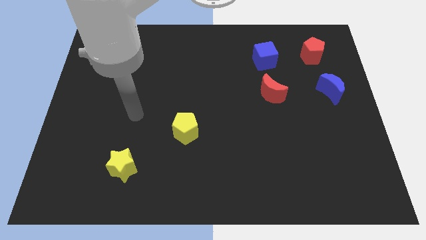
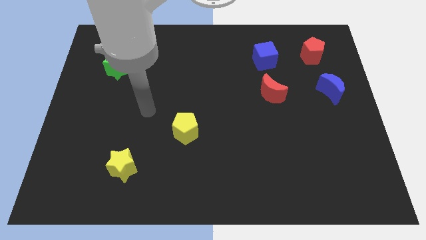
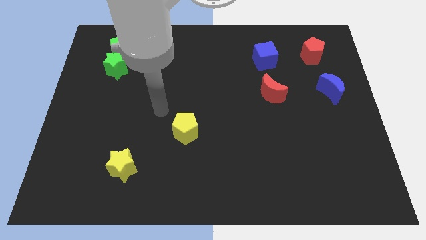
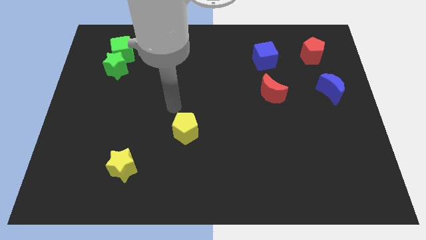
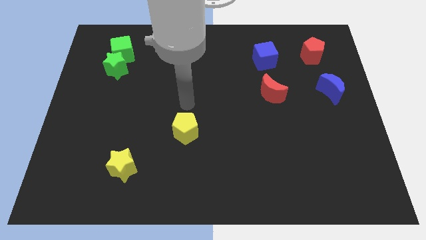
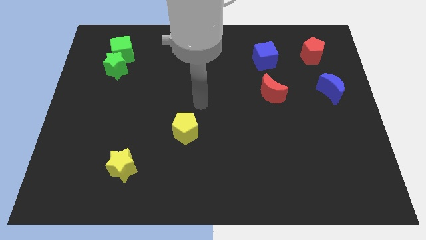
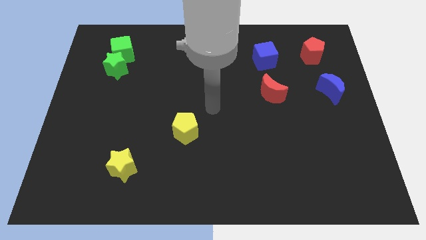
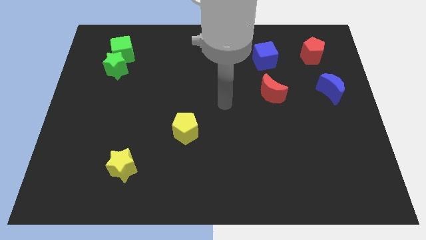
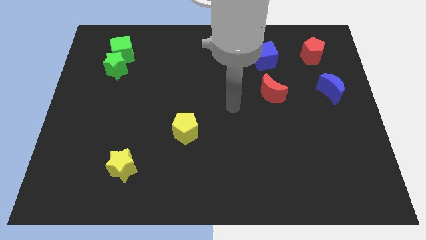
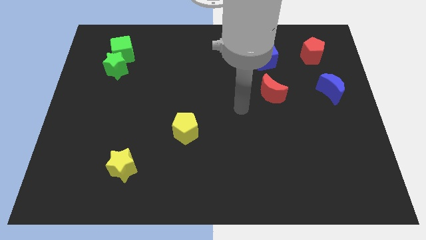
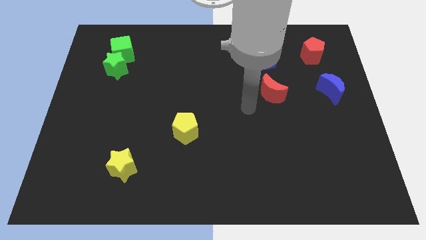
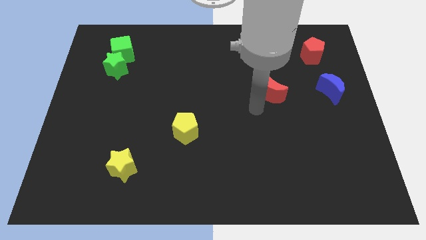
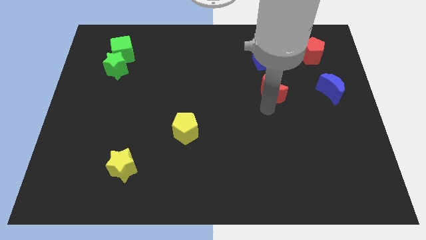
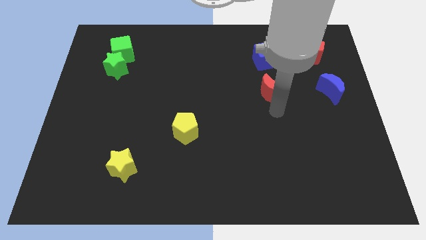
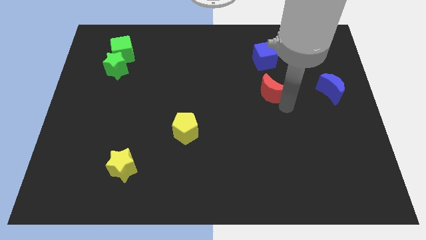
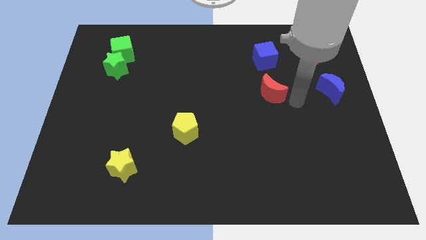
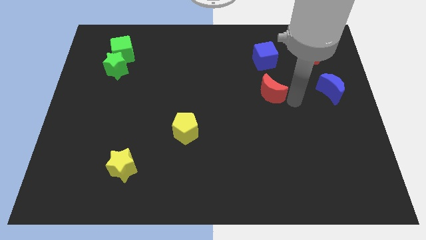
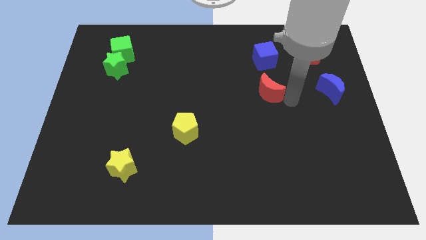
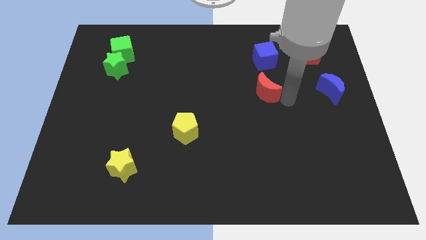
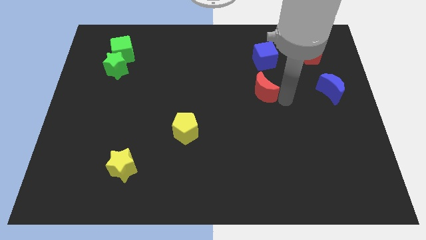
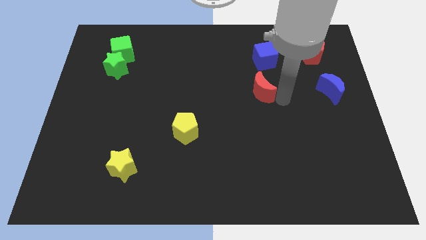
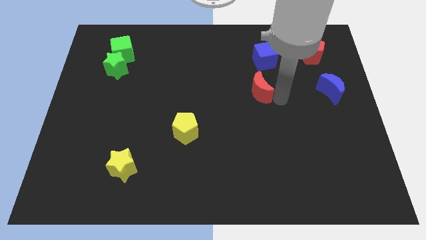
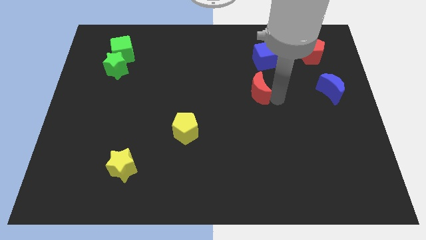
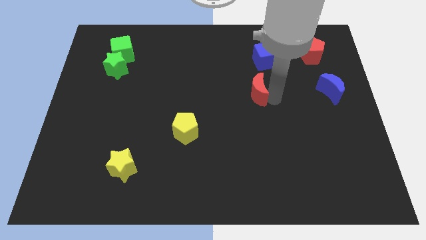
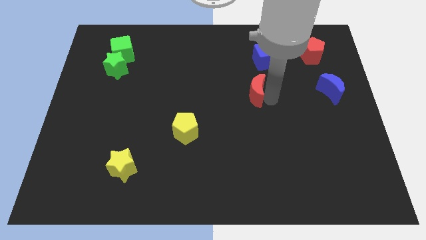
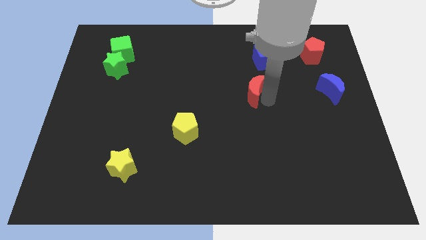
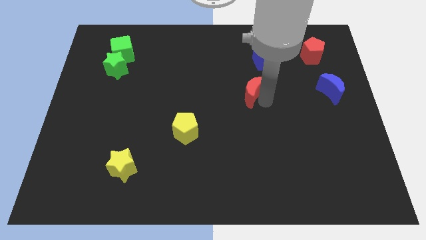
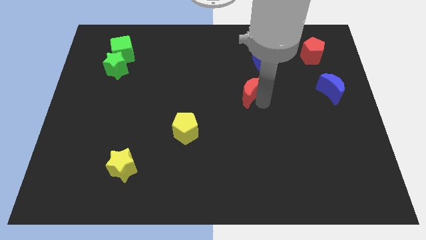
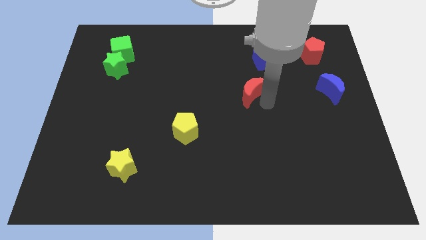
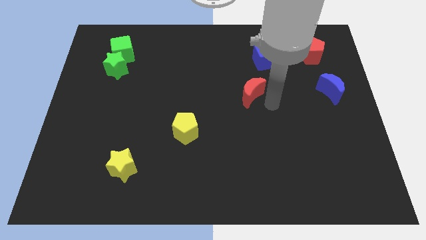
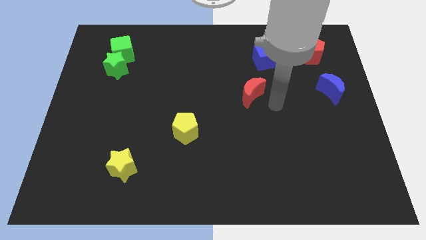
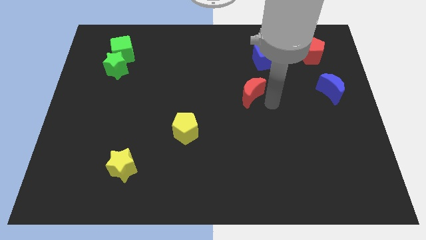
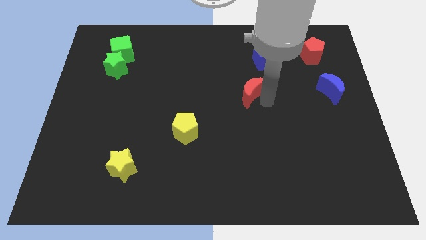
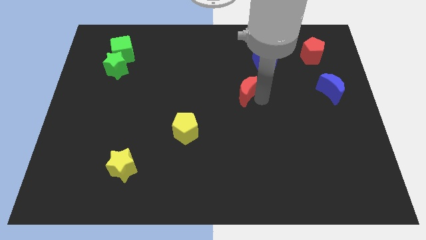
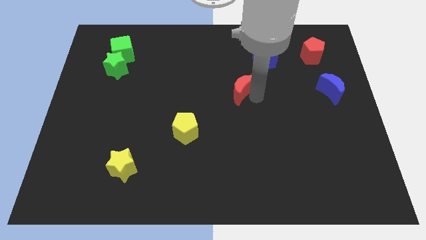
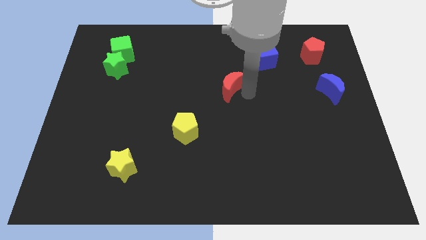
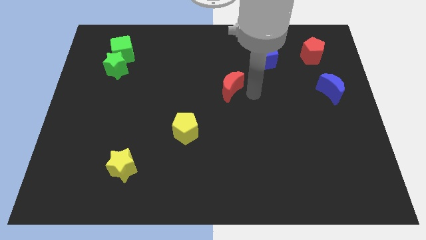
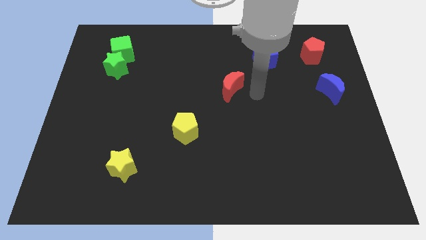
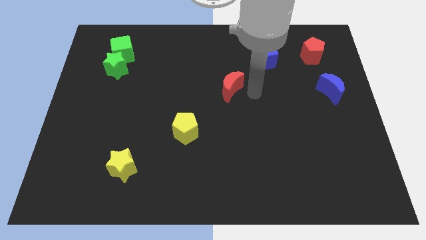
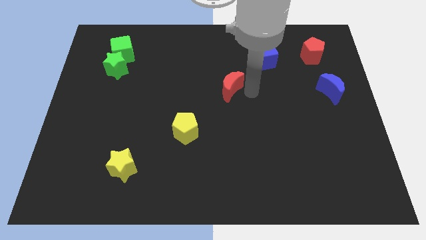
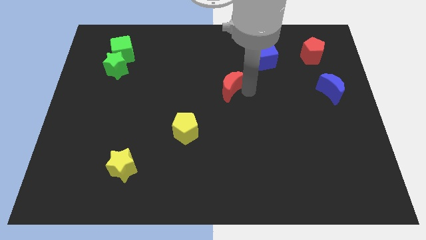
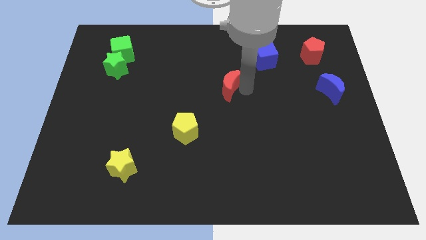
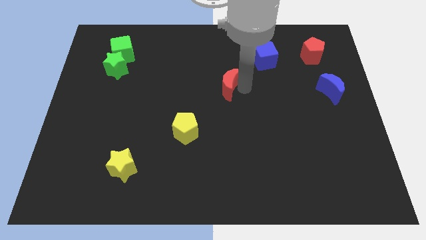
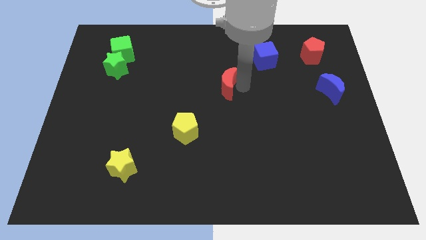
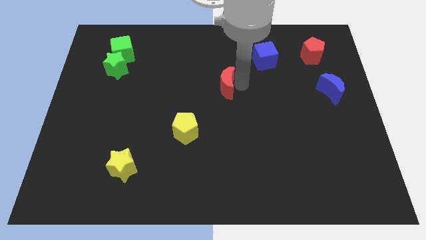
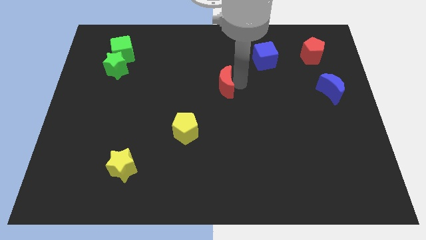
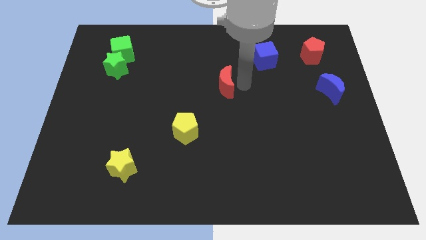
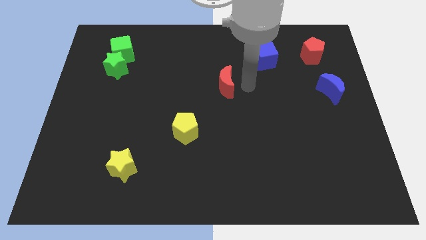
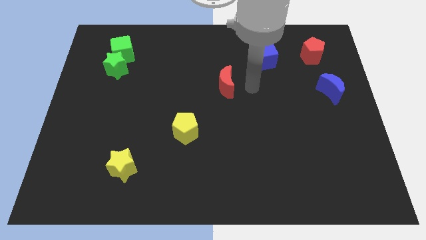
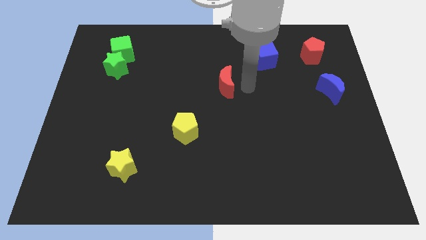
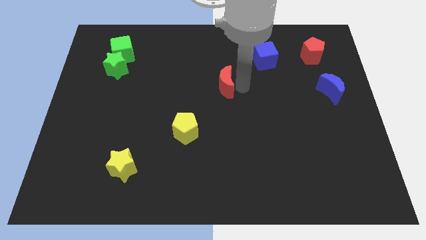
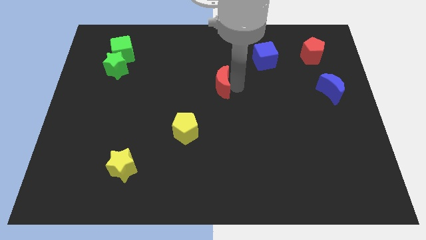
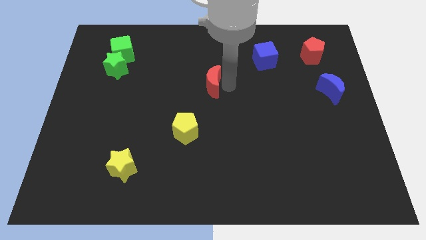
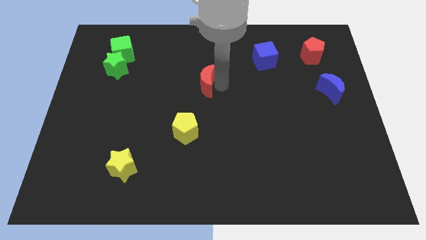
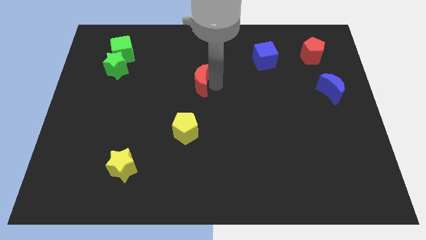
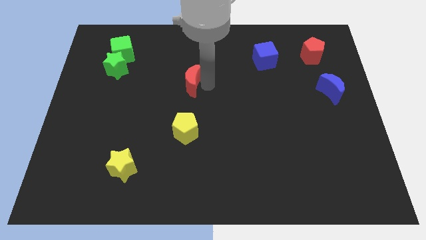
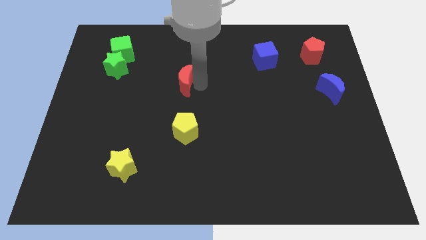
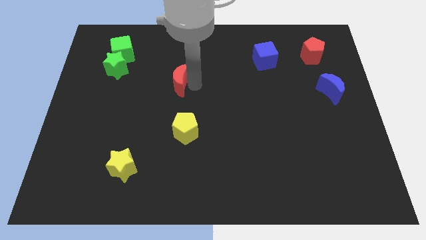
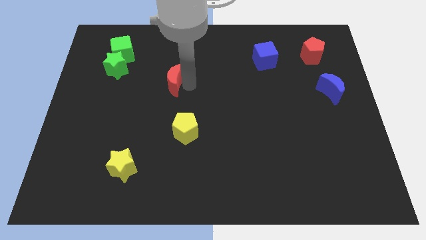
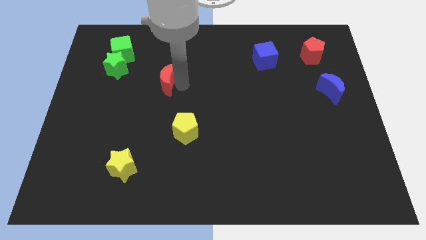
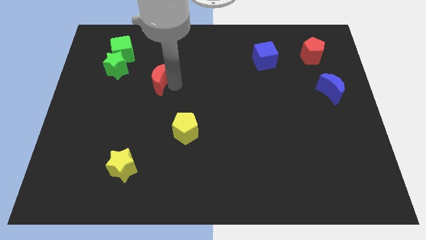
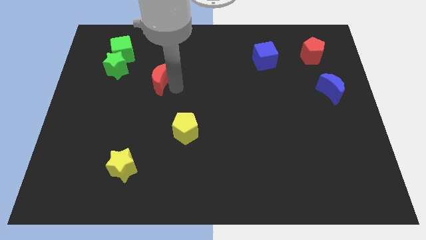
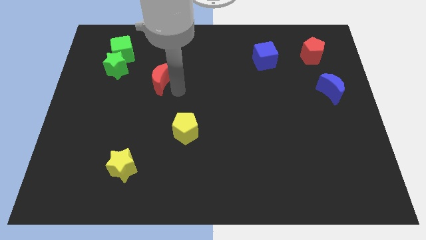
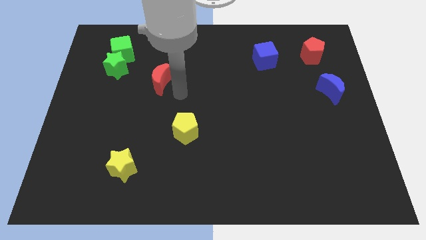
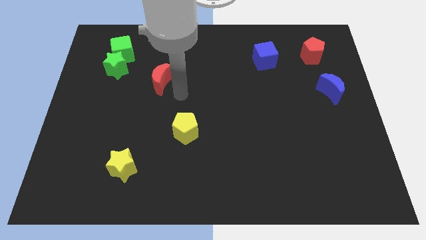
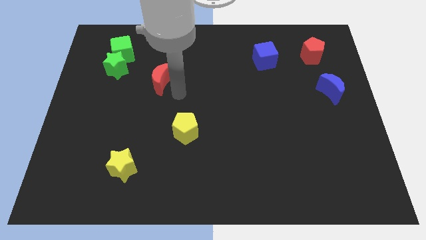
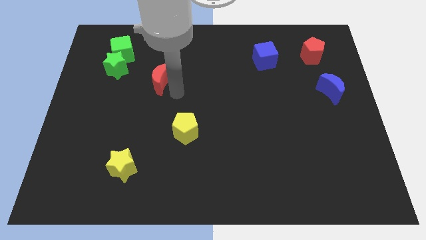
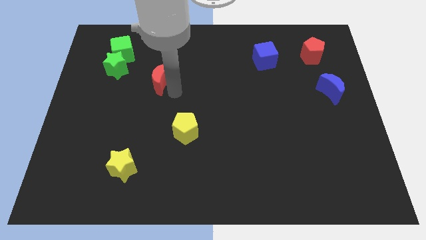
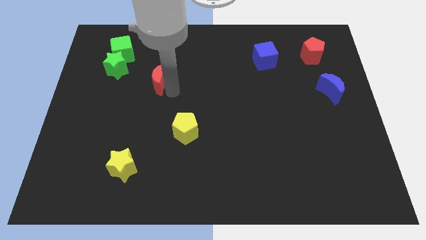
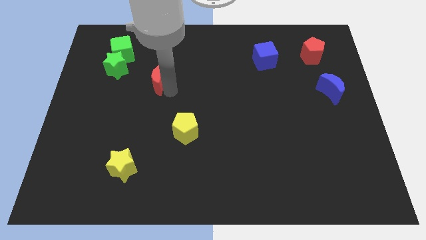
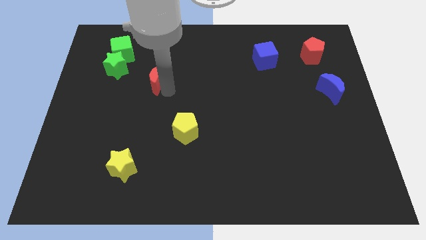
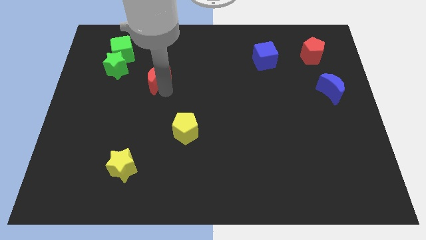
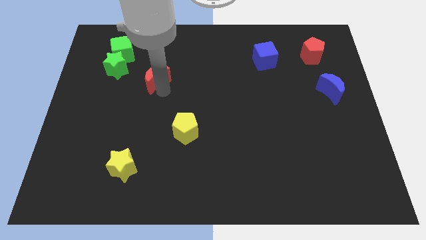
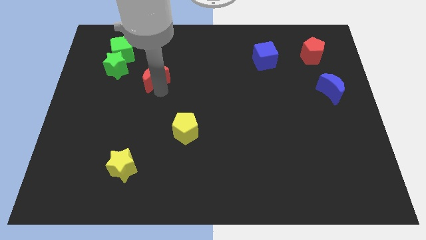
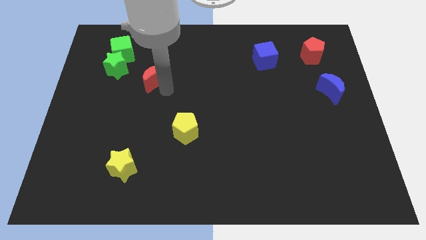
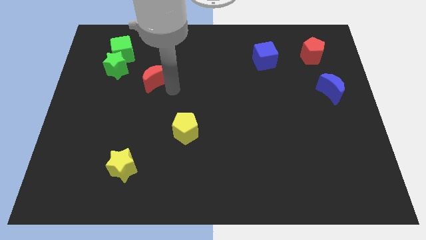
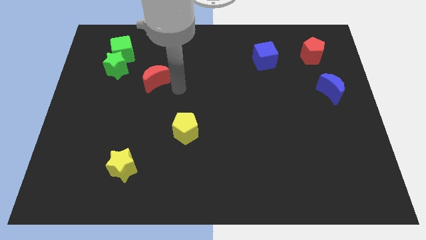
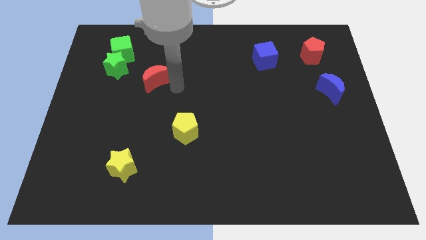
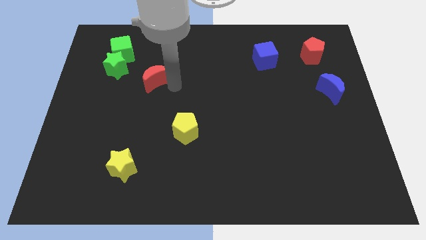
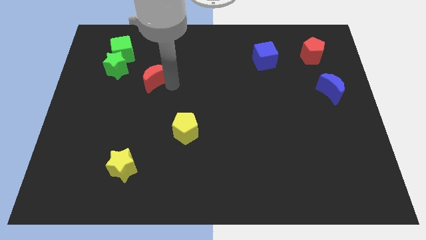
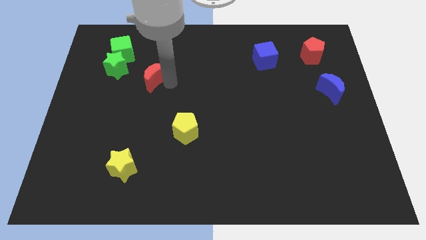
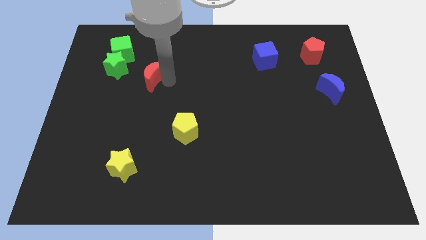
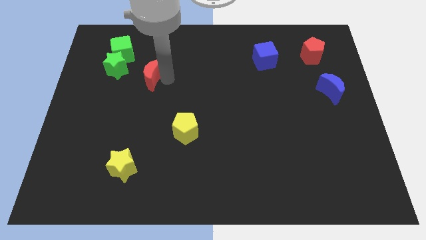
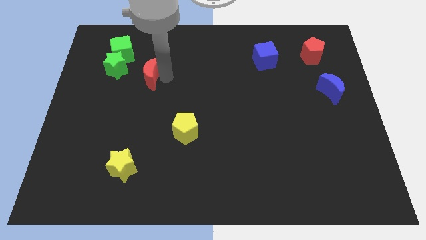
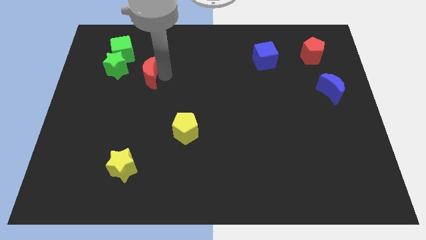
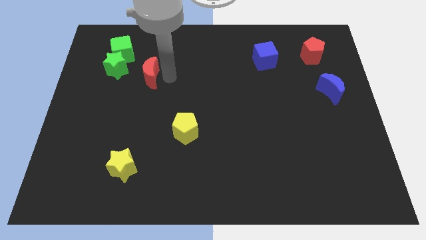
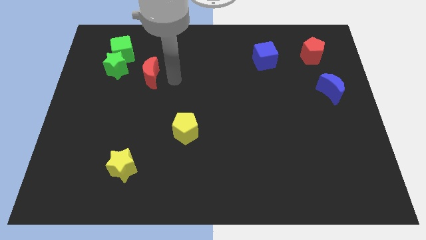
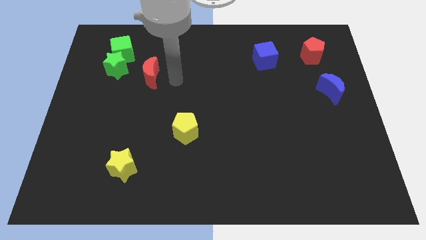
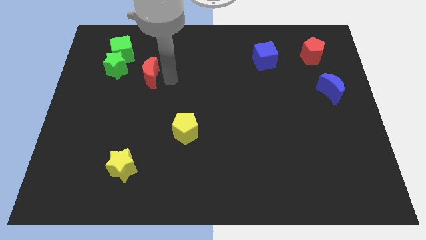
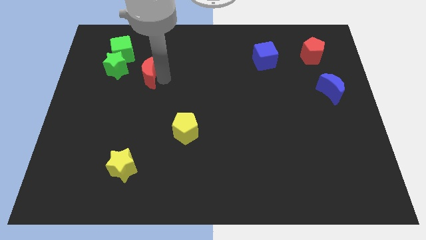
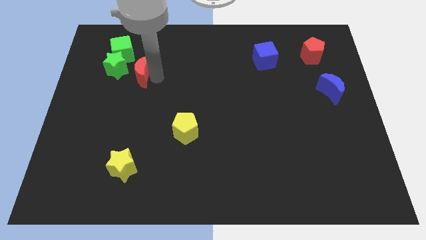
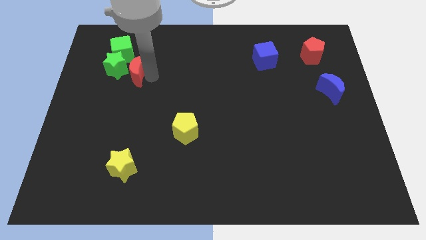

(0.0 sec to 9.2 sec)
slide the red moon next to the green star
